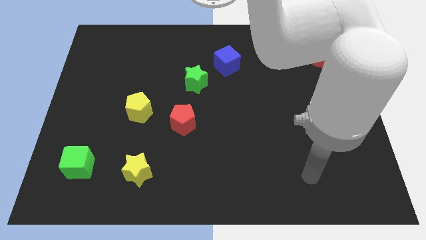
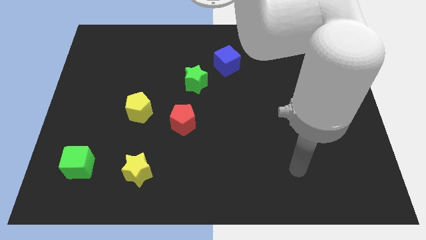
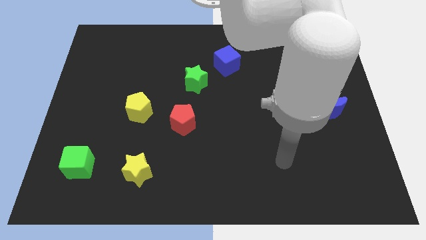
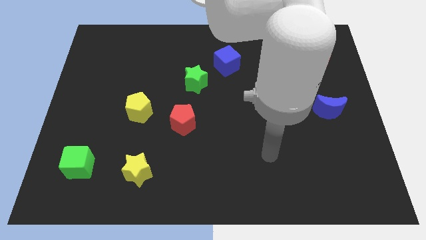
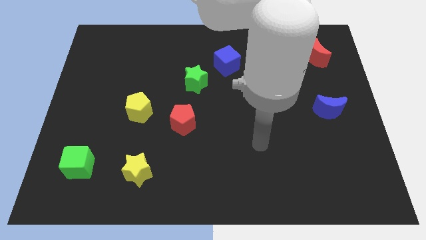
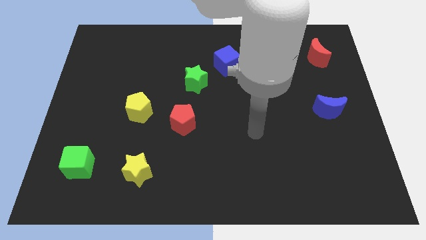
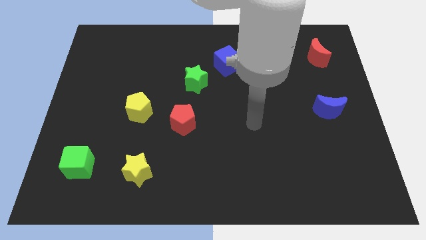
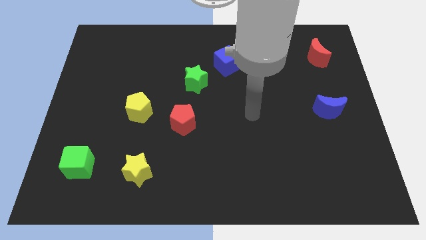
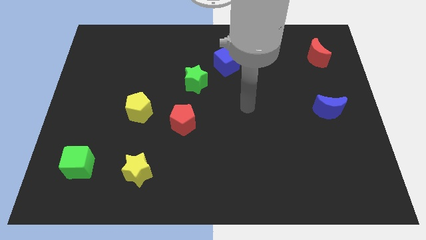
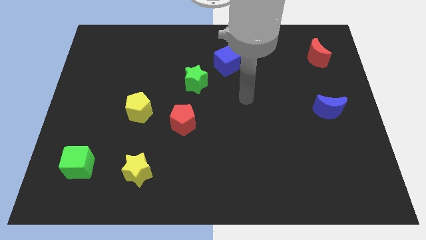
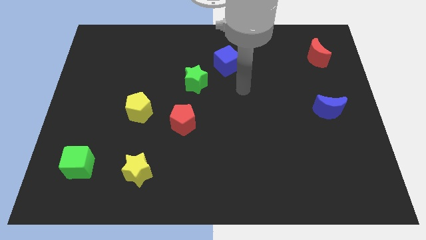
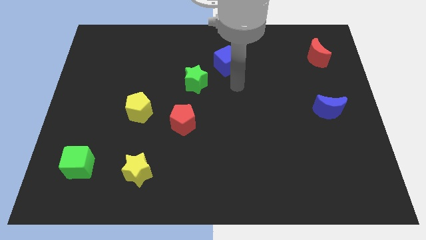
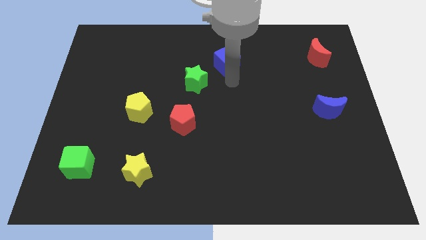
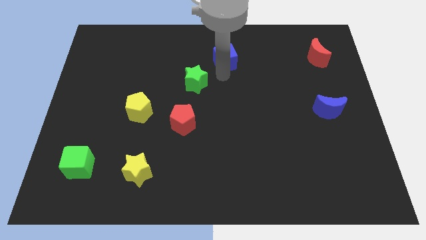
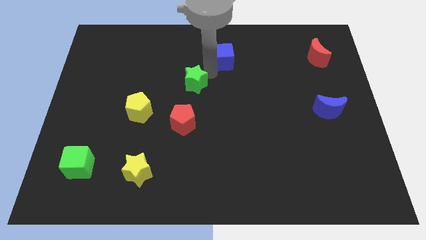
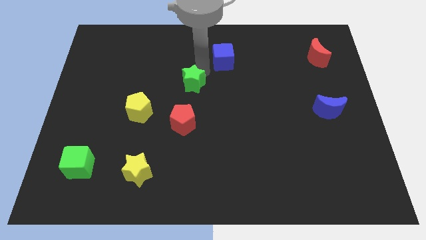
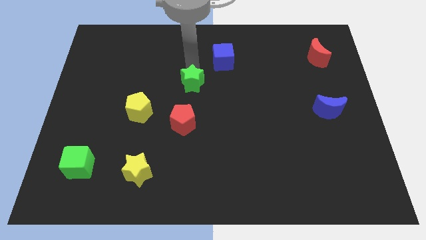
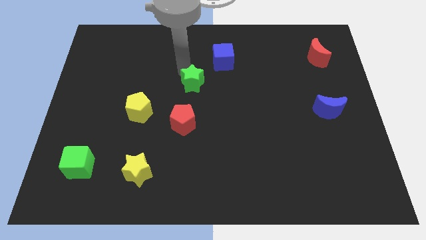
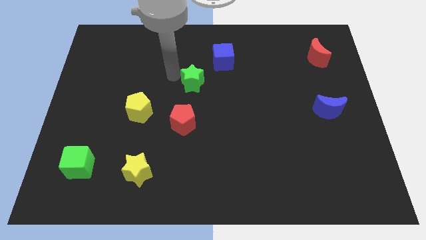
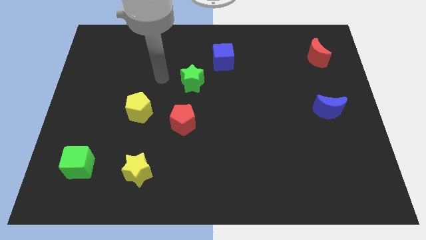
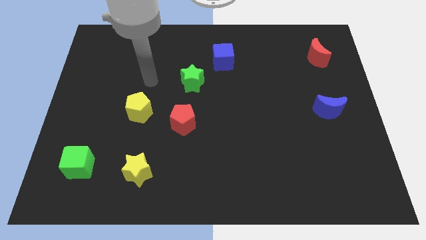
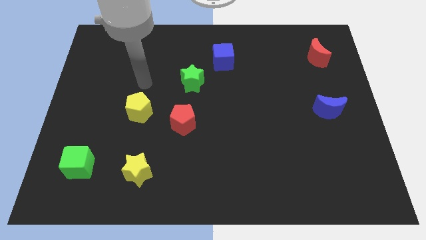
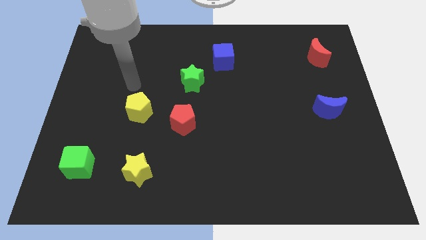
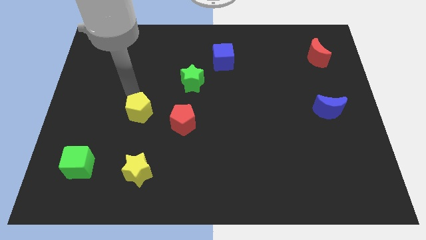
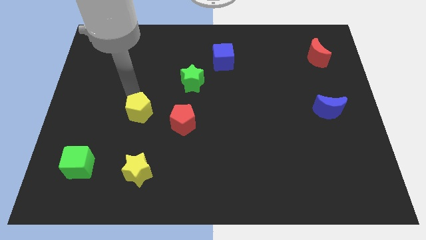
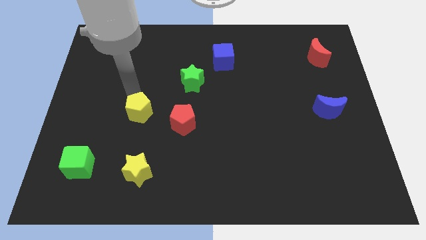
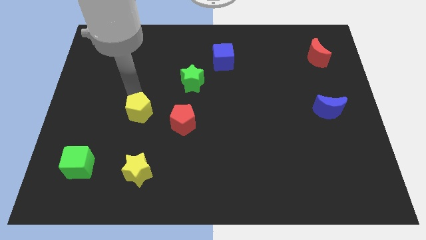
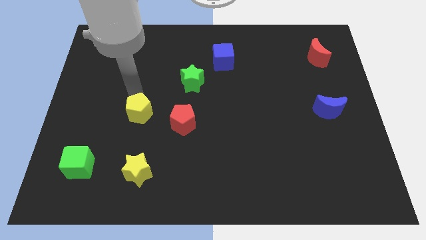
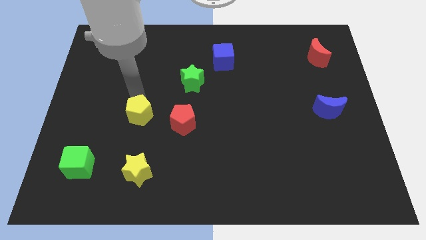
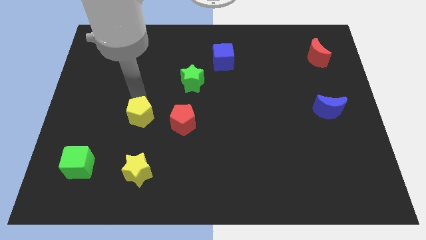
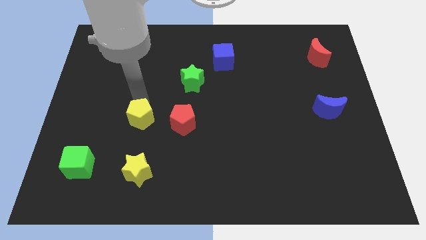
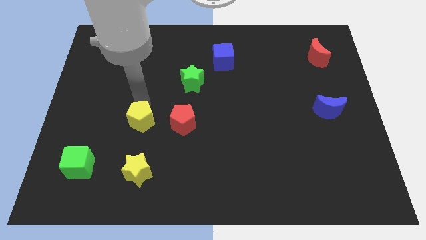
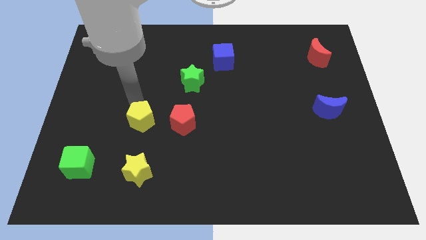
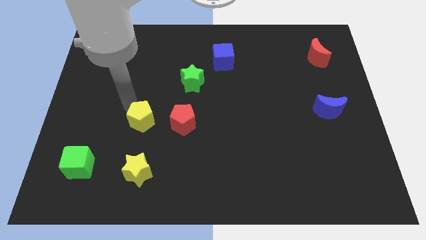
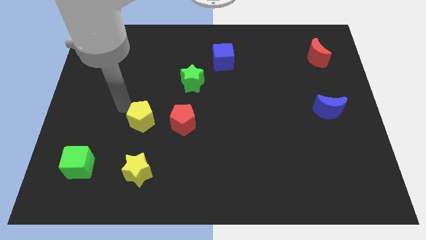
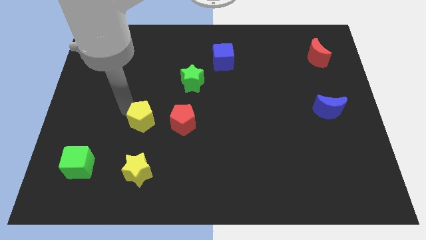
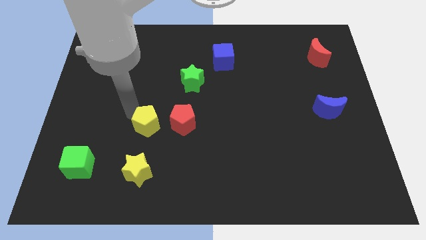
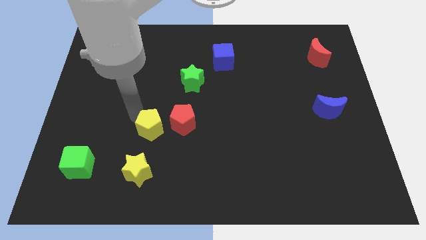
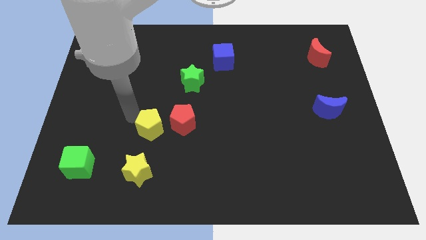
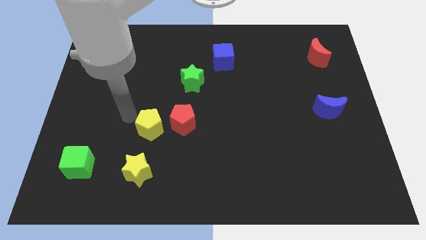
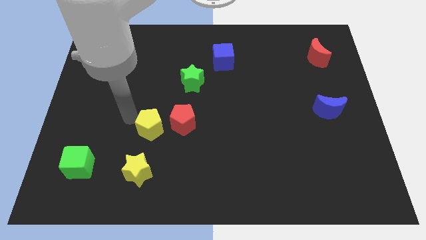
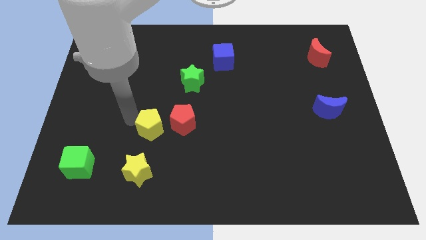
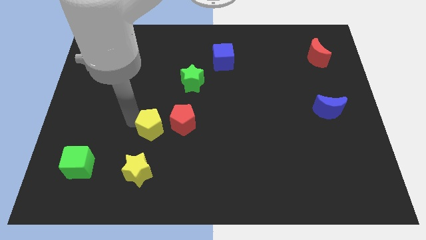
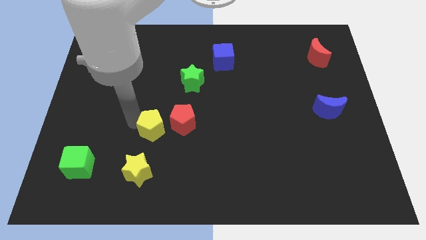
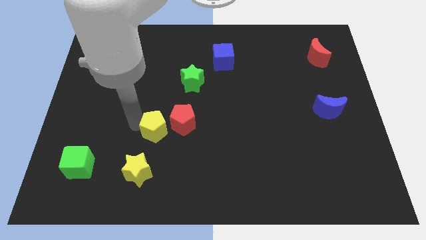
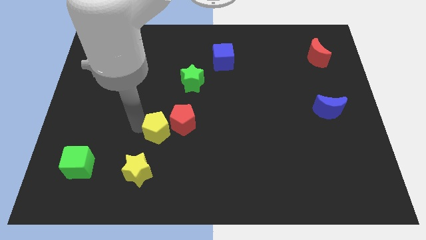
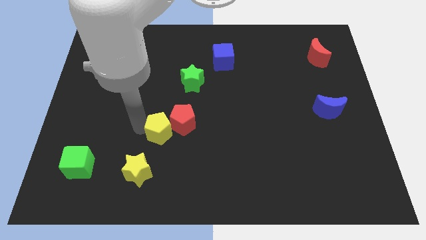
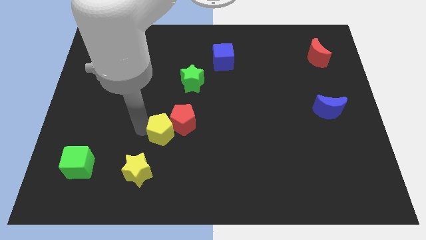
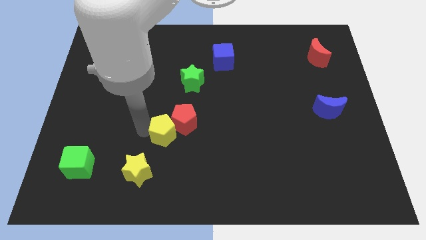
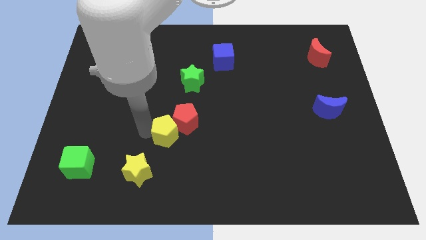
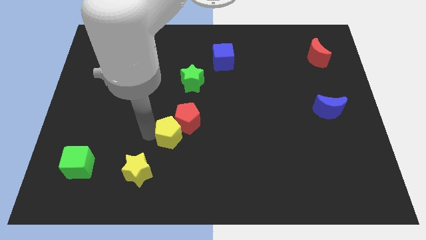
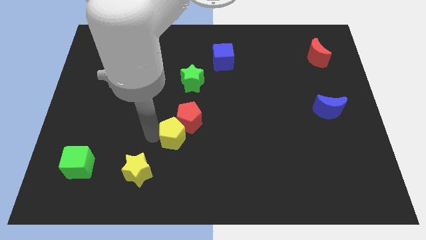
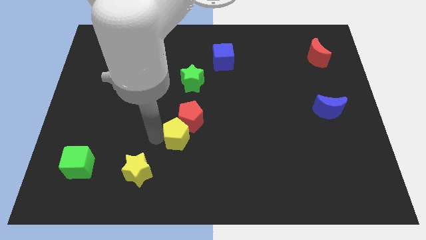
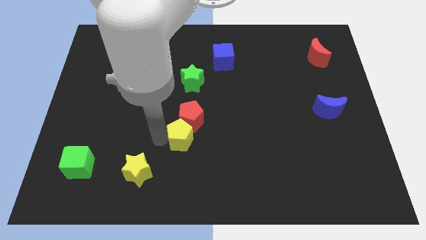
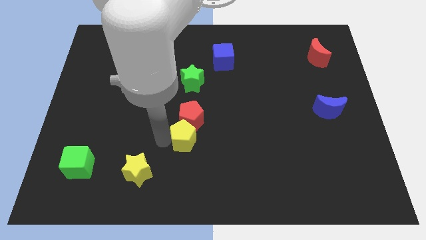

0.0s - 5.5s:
slide the yellow pentagon to the bottom right side of the red pentagon

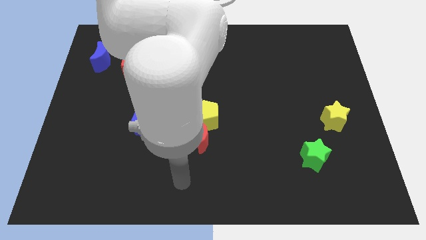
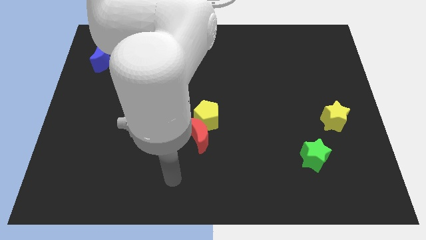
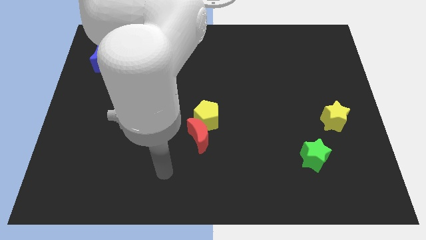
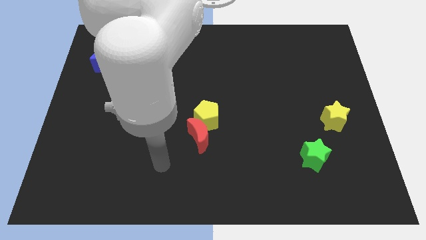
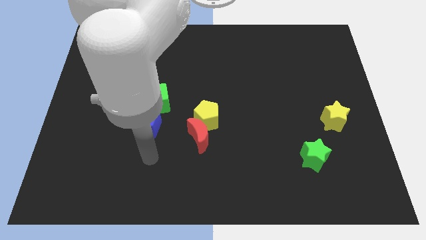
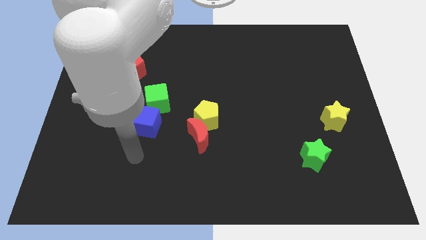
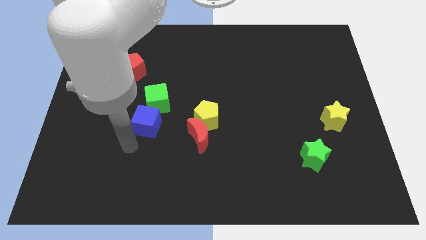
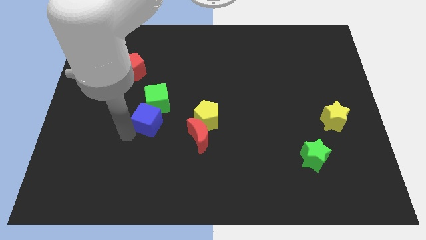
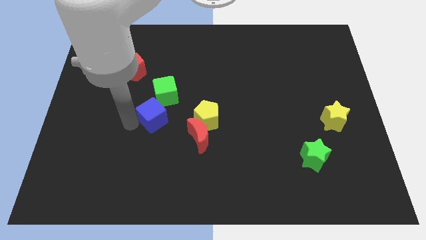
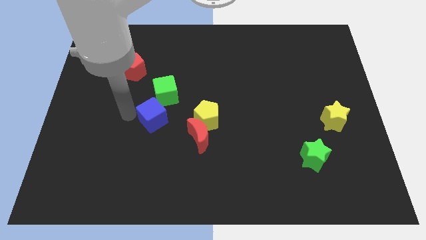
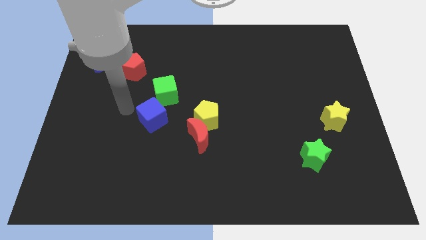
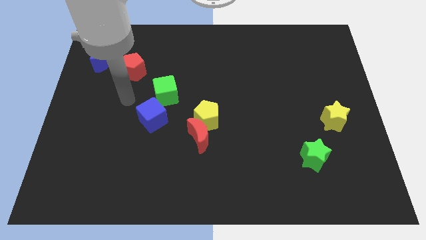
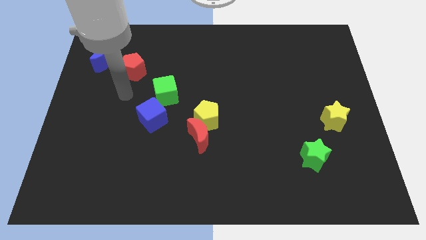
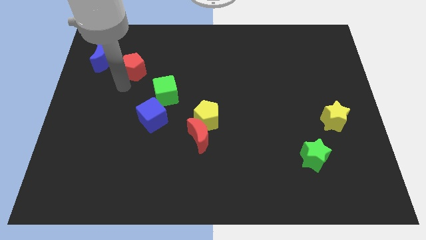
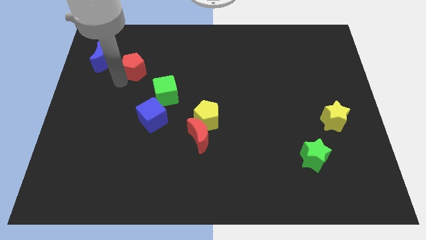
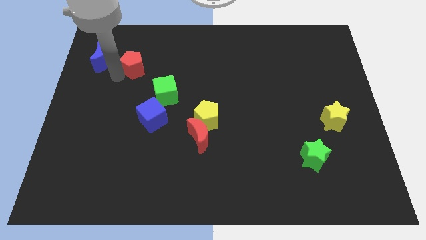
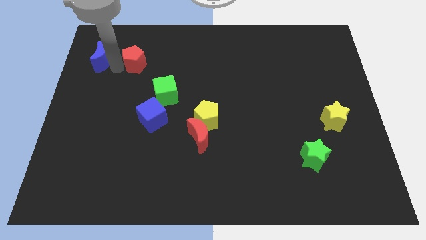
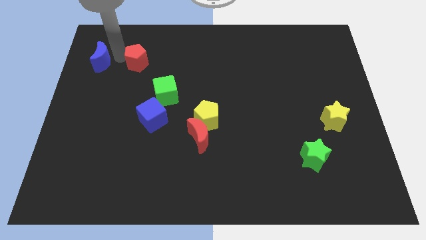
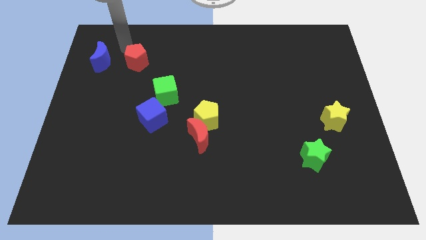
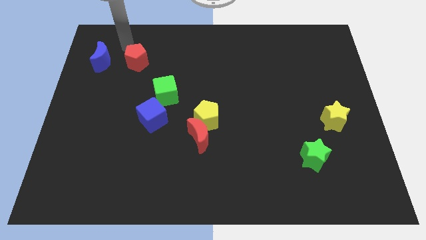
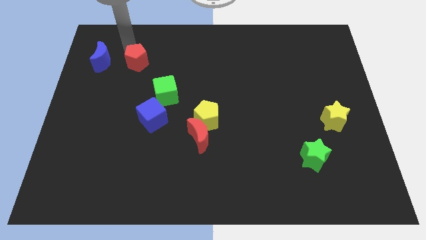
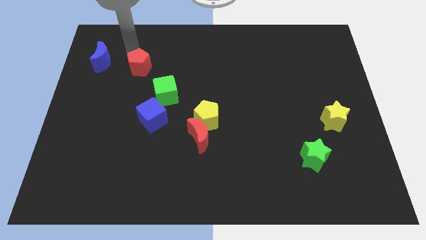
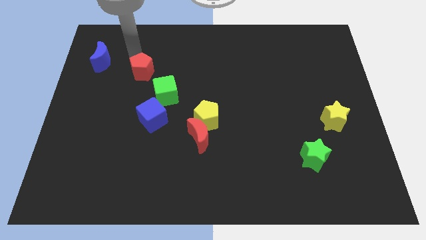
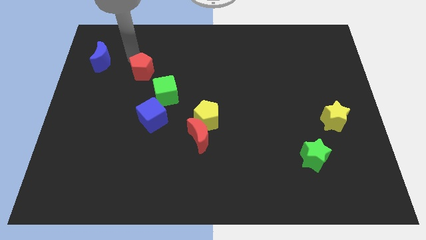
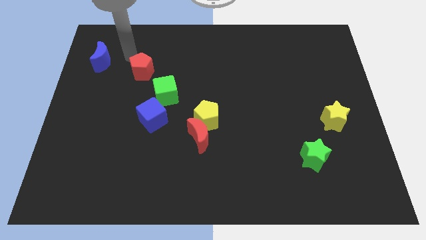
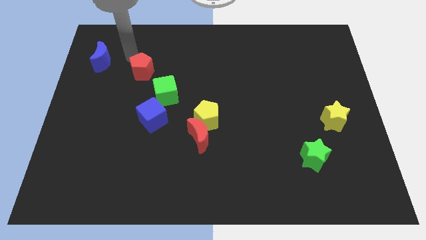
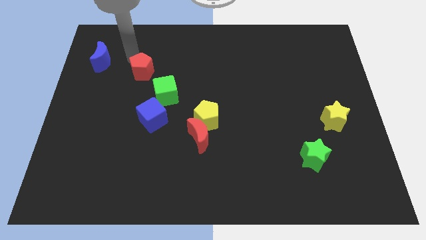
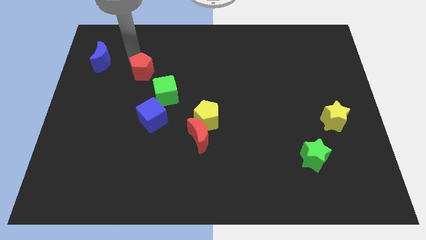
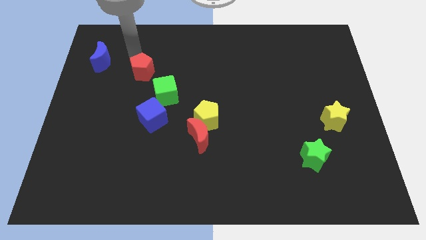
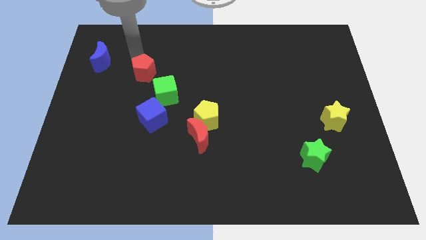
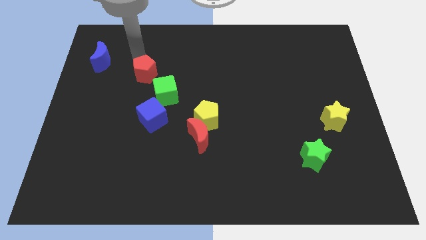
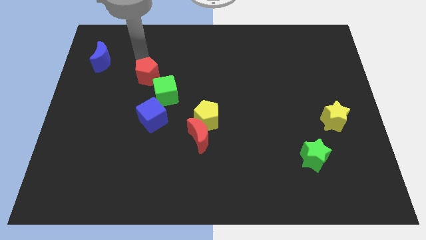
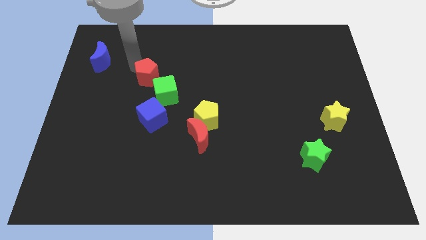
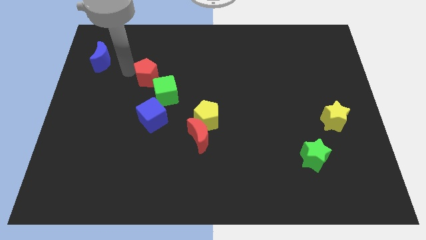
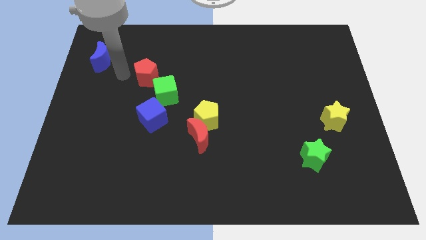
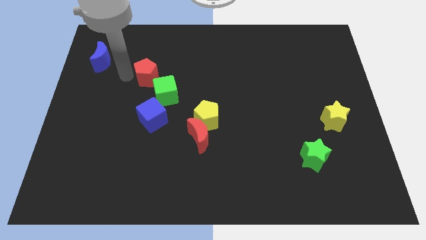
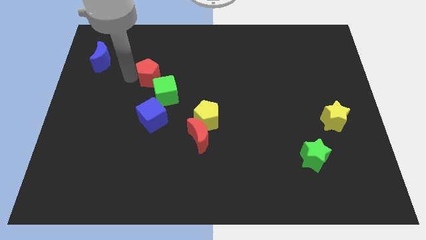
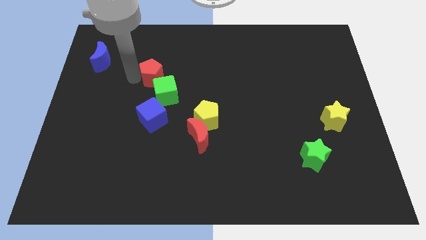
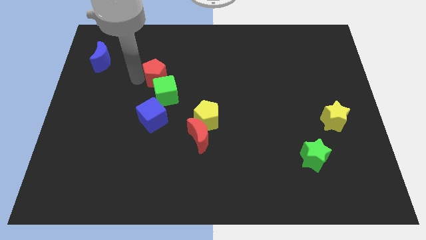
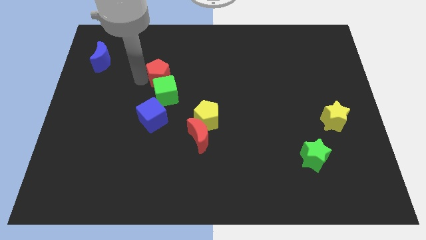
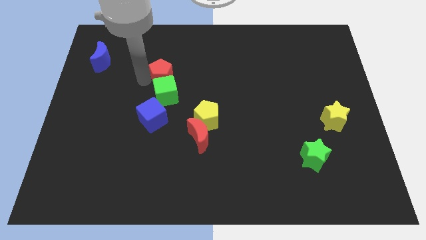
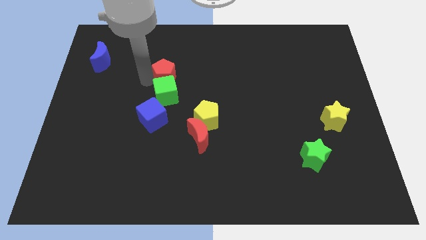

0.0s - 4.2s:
slide the red pentagon diagonally up and to the right of the green cube
